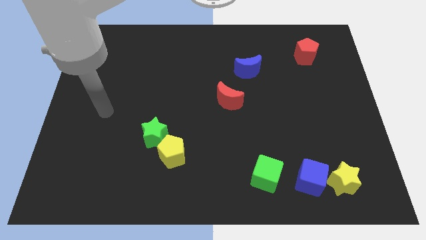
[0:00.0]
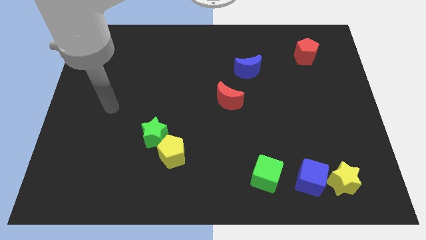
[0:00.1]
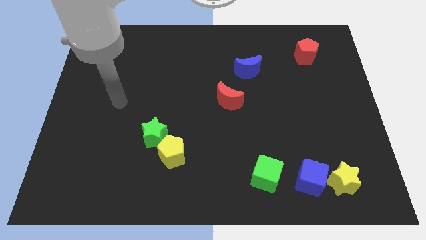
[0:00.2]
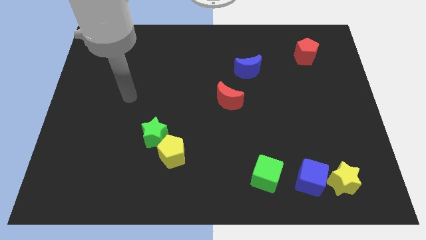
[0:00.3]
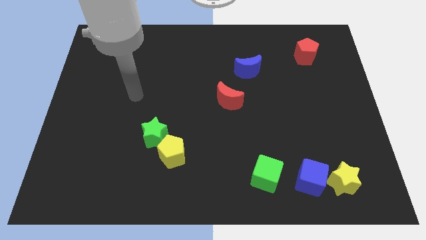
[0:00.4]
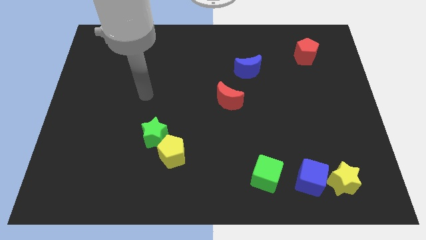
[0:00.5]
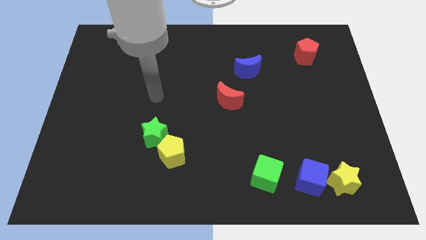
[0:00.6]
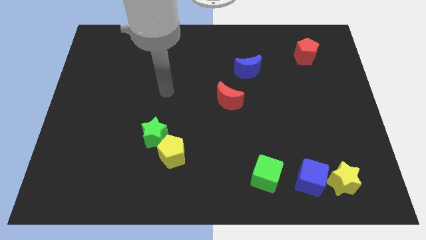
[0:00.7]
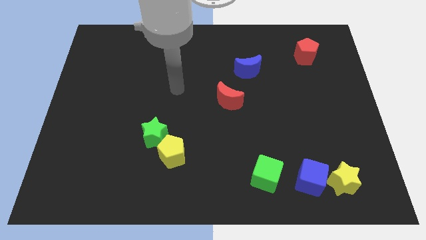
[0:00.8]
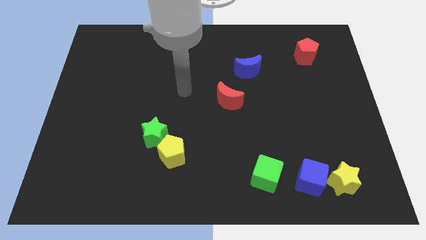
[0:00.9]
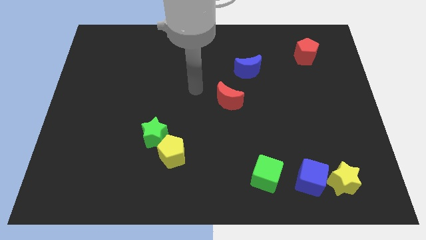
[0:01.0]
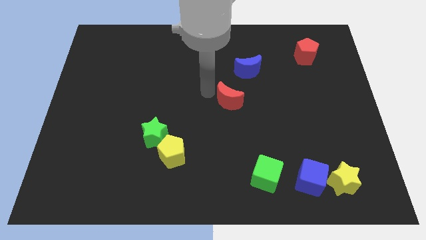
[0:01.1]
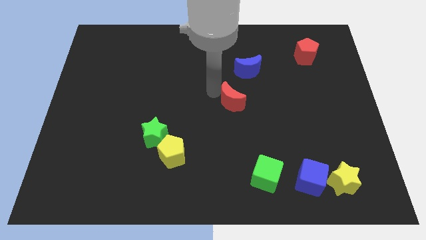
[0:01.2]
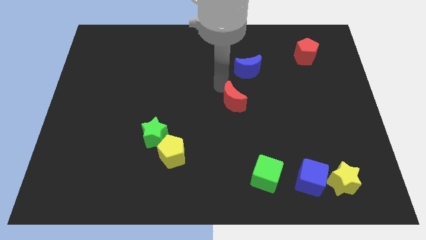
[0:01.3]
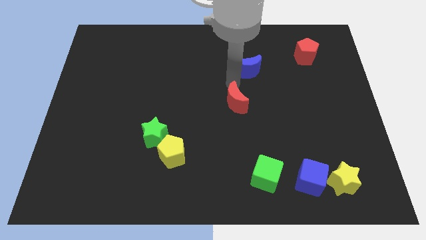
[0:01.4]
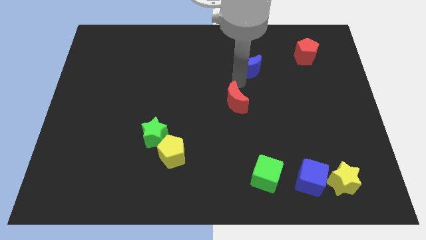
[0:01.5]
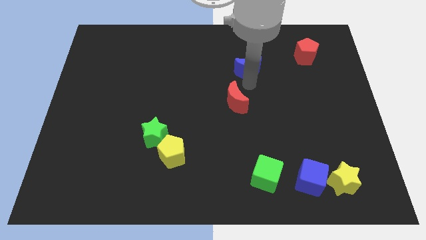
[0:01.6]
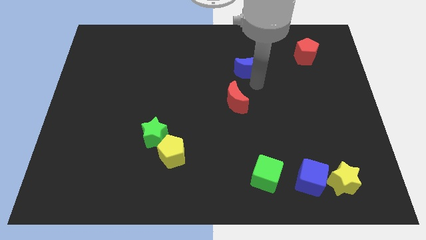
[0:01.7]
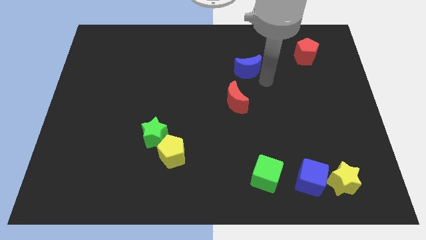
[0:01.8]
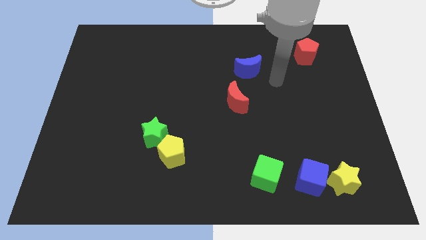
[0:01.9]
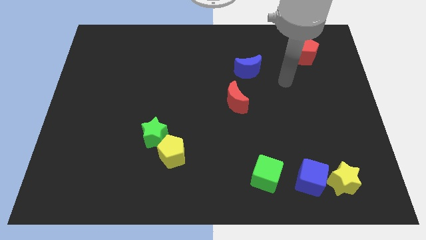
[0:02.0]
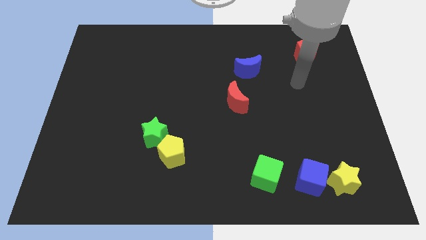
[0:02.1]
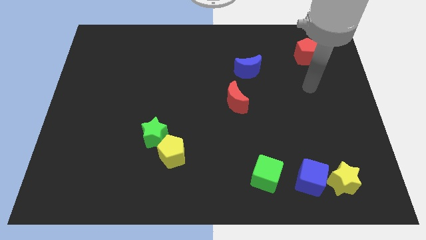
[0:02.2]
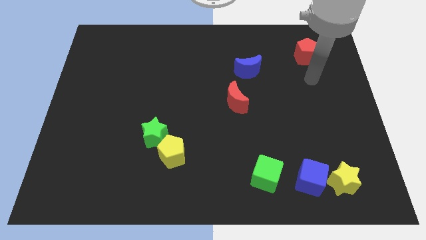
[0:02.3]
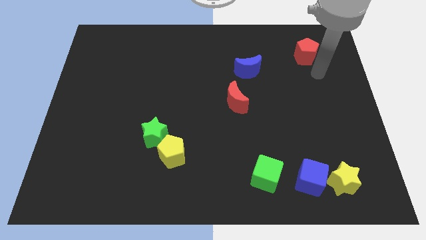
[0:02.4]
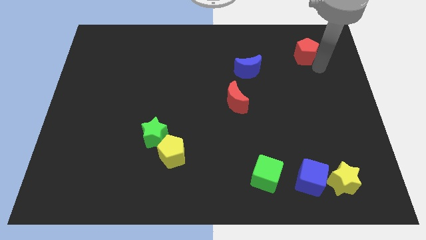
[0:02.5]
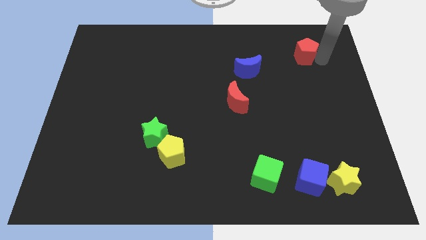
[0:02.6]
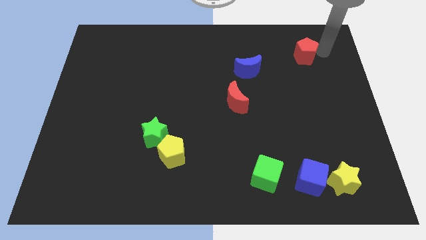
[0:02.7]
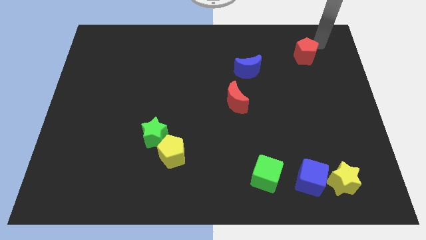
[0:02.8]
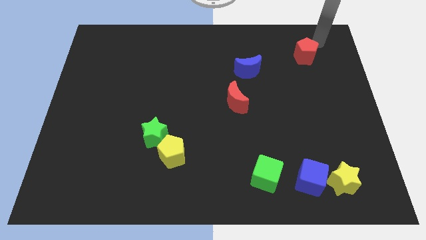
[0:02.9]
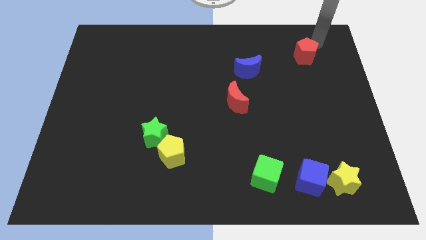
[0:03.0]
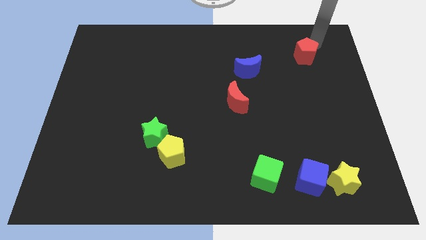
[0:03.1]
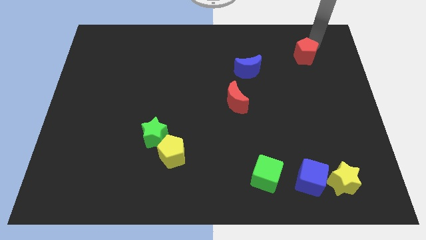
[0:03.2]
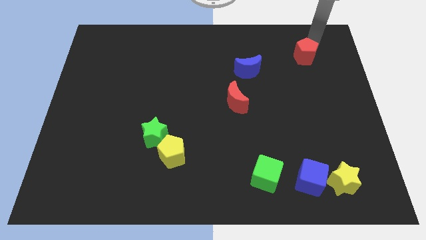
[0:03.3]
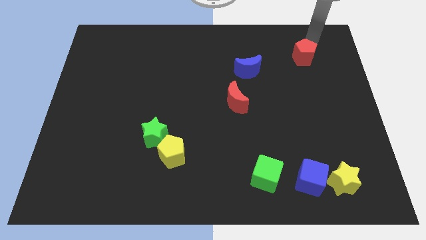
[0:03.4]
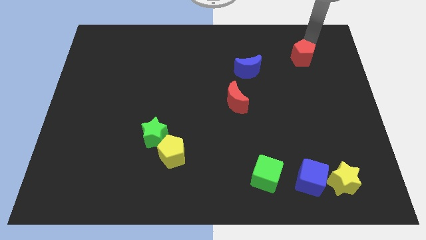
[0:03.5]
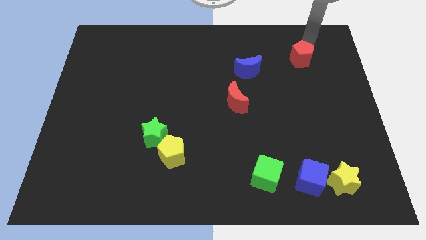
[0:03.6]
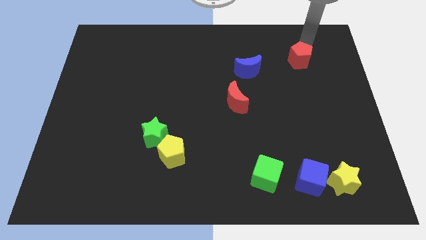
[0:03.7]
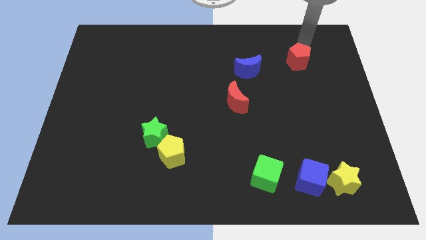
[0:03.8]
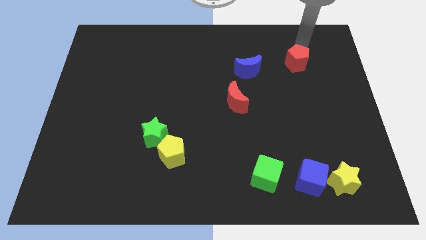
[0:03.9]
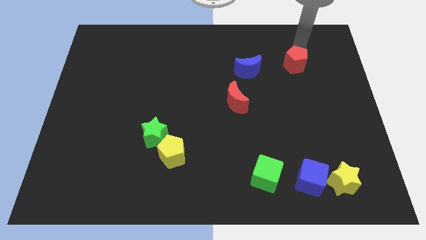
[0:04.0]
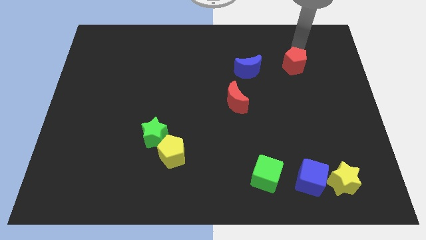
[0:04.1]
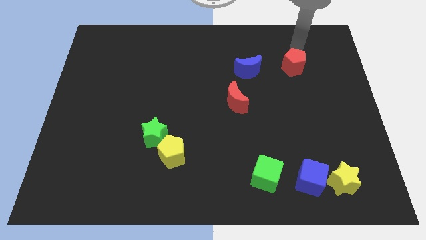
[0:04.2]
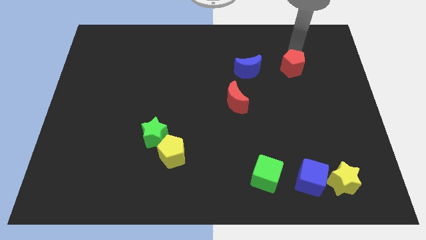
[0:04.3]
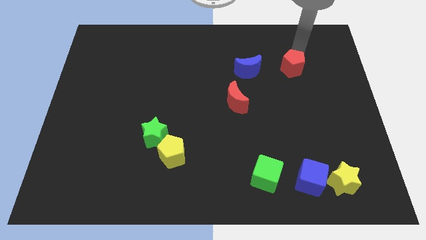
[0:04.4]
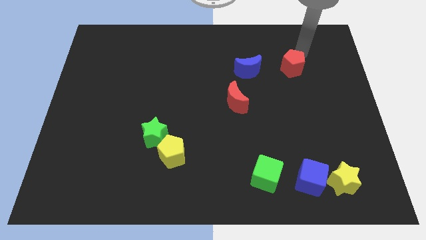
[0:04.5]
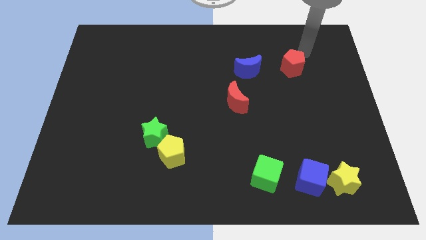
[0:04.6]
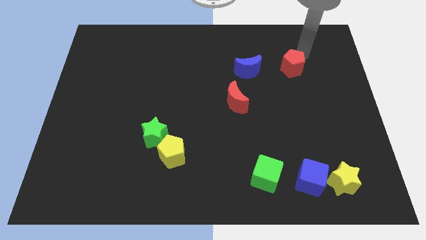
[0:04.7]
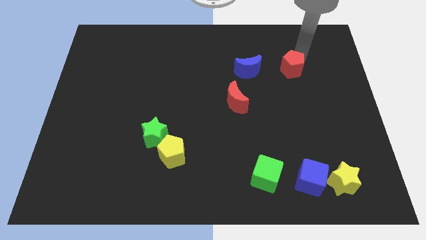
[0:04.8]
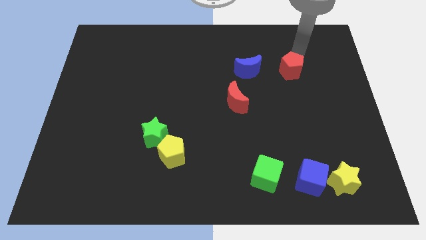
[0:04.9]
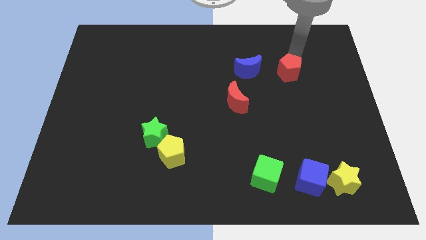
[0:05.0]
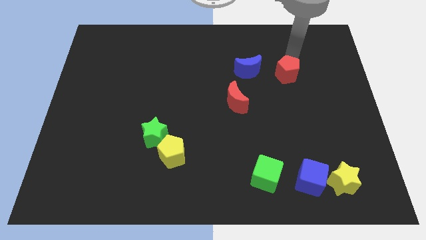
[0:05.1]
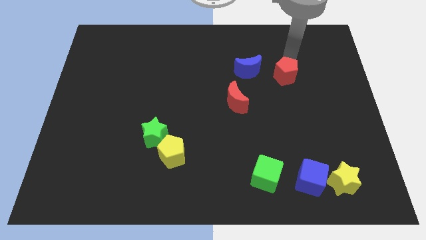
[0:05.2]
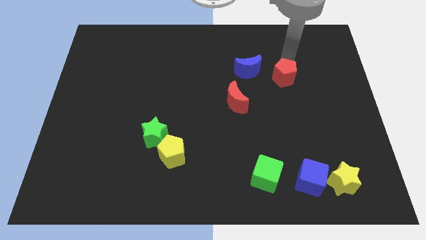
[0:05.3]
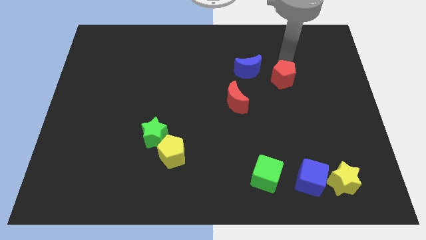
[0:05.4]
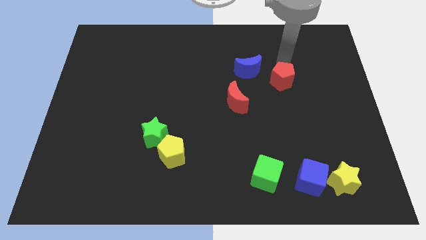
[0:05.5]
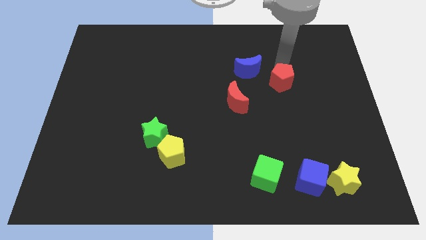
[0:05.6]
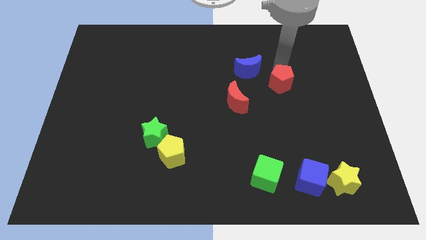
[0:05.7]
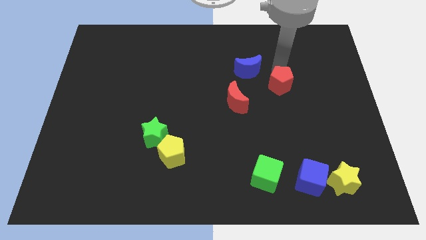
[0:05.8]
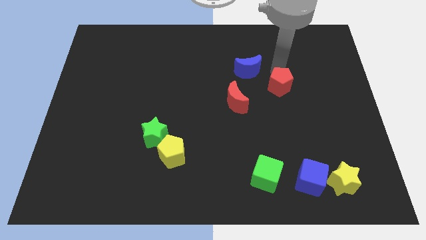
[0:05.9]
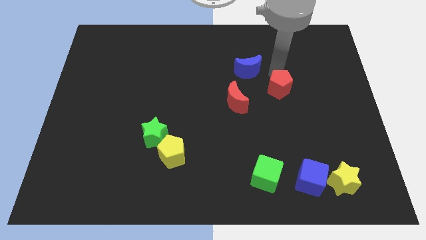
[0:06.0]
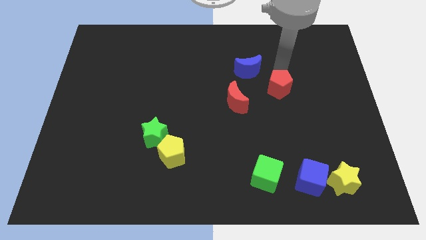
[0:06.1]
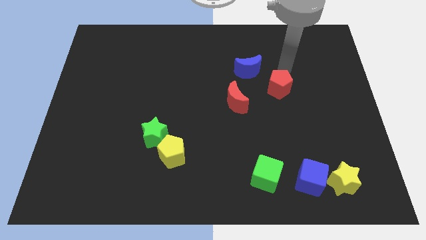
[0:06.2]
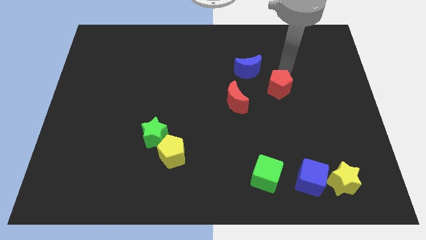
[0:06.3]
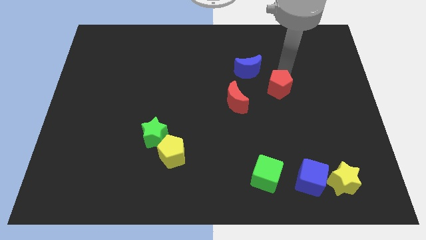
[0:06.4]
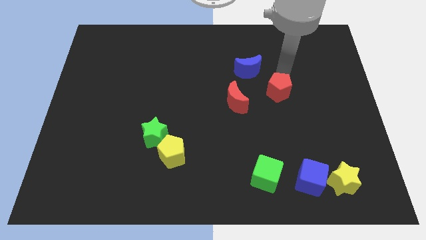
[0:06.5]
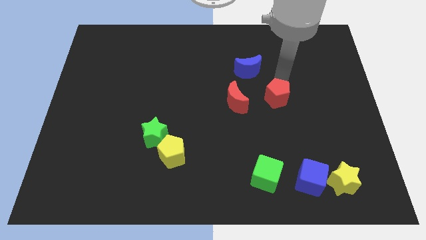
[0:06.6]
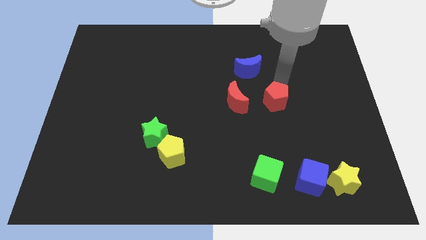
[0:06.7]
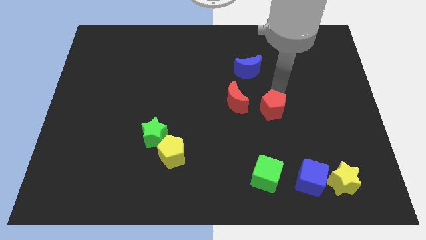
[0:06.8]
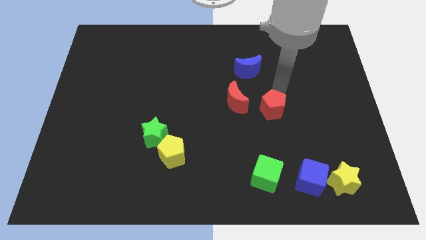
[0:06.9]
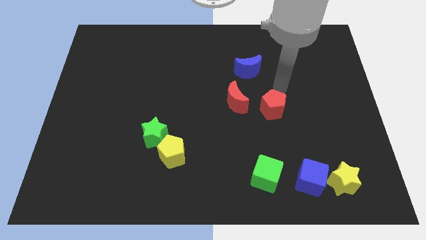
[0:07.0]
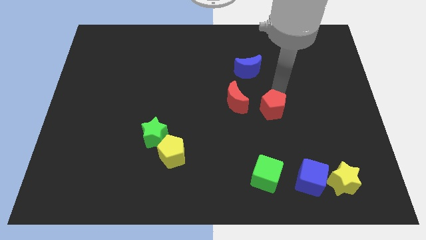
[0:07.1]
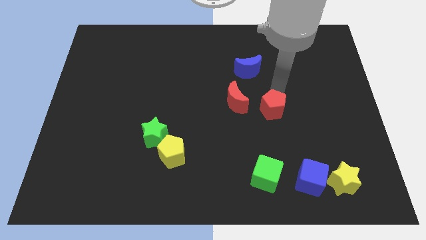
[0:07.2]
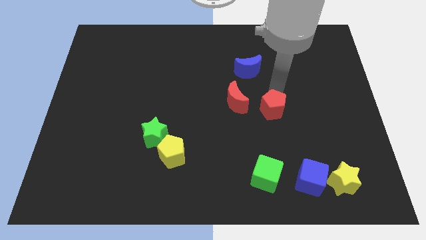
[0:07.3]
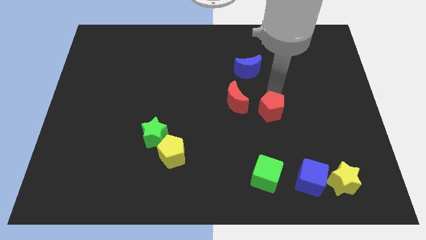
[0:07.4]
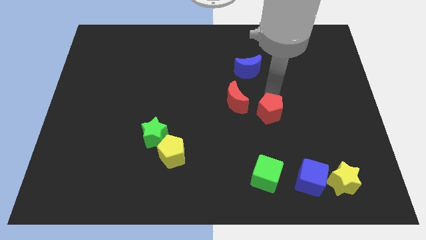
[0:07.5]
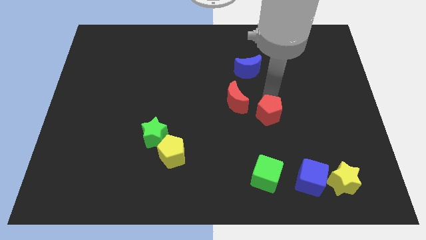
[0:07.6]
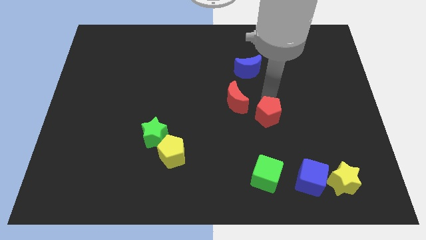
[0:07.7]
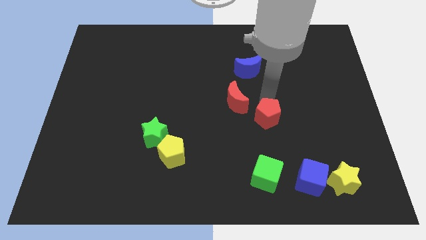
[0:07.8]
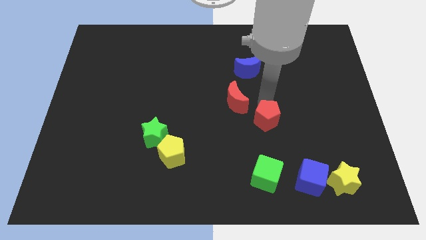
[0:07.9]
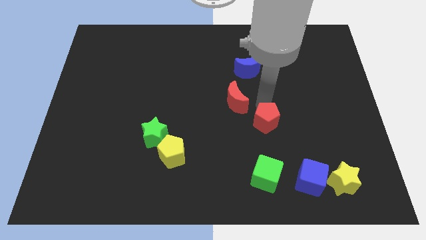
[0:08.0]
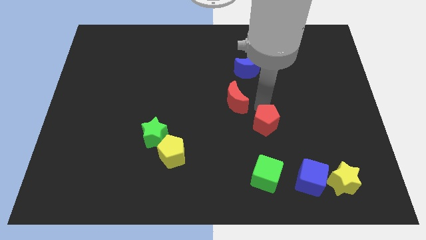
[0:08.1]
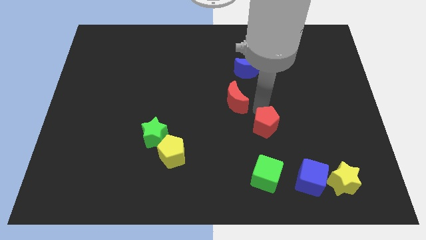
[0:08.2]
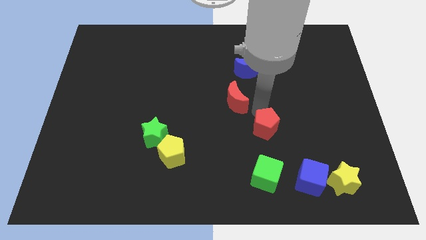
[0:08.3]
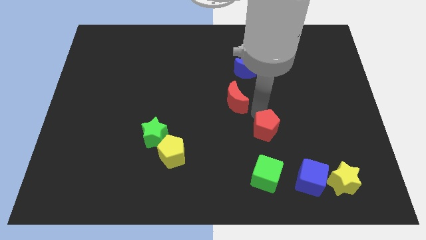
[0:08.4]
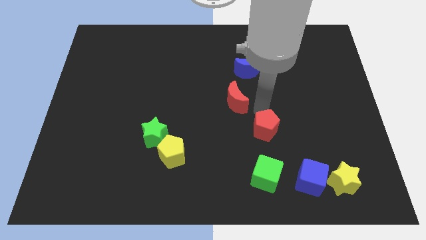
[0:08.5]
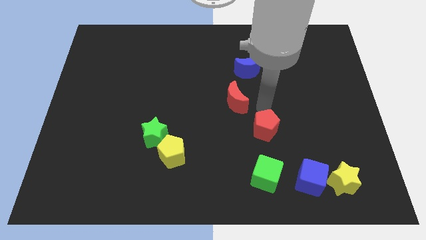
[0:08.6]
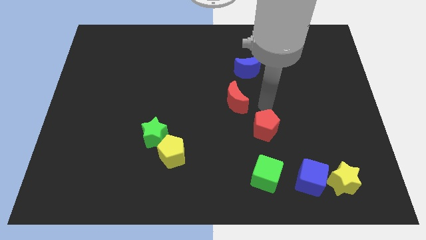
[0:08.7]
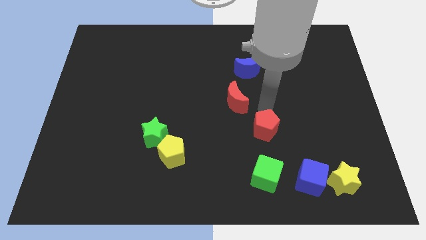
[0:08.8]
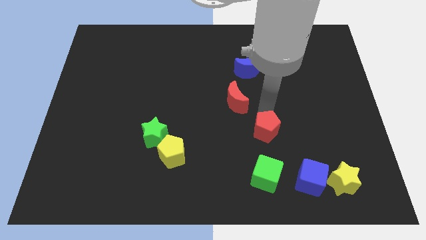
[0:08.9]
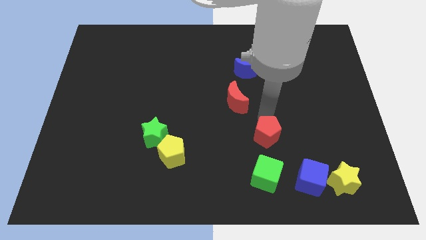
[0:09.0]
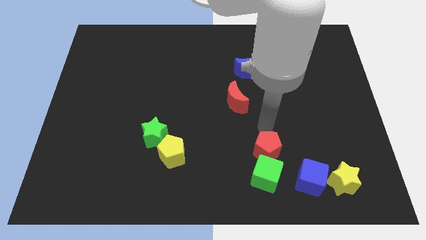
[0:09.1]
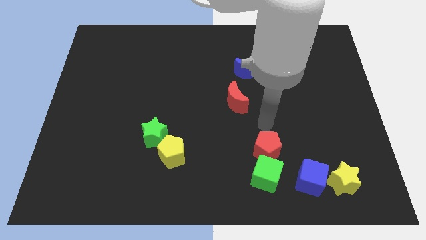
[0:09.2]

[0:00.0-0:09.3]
put the red pentagon next to the green cube
